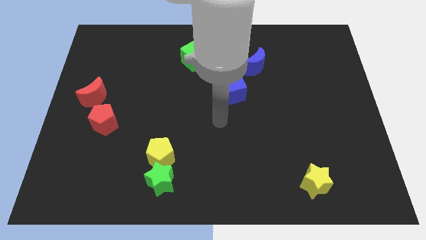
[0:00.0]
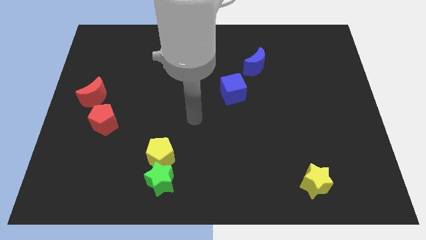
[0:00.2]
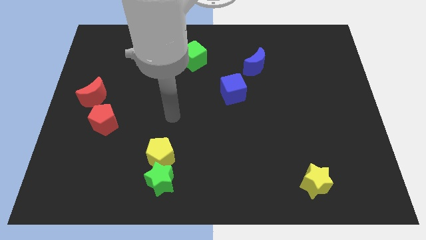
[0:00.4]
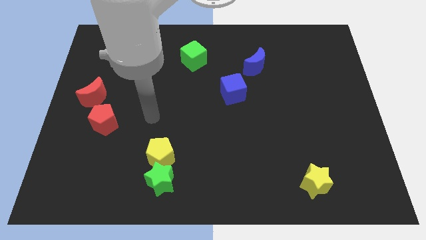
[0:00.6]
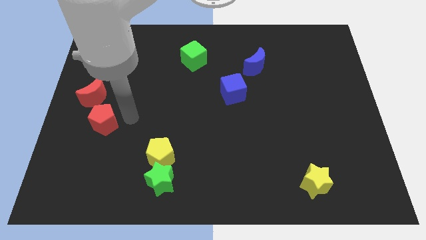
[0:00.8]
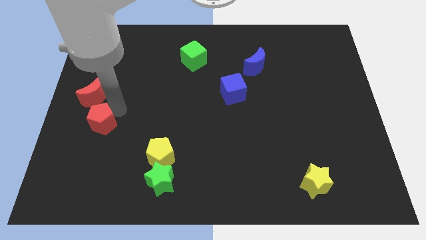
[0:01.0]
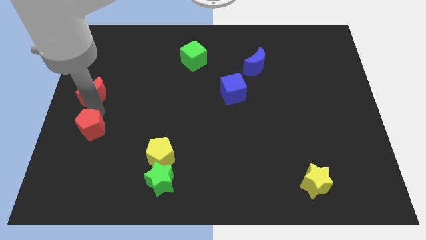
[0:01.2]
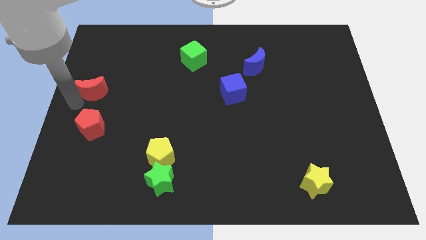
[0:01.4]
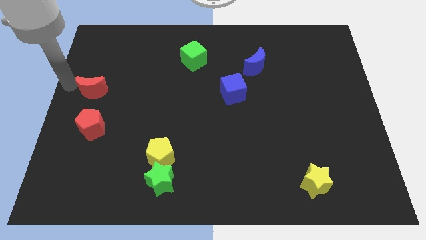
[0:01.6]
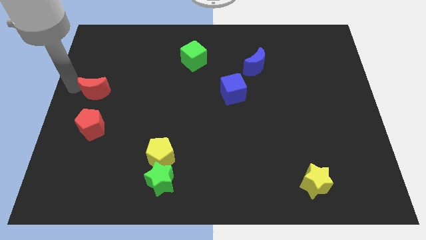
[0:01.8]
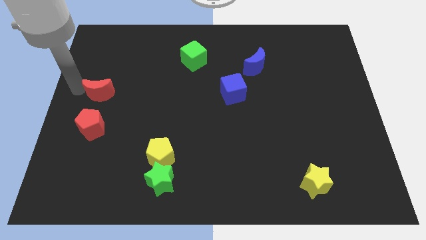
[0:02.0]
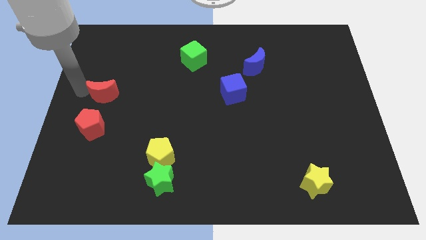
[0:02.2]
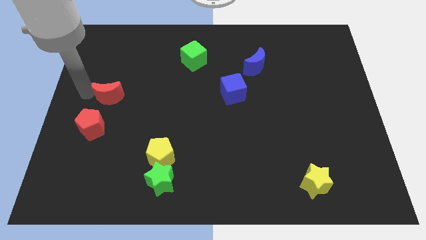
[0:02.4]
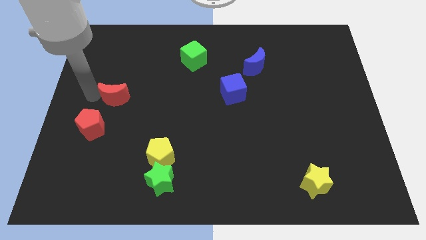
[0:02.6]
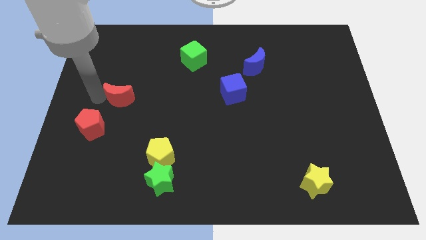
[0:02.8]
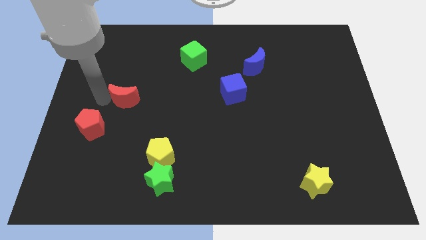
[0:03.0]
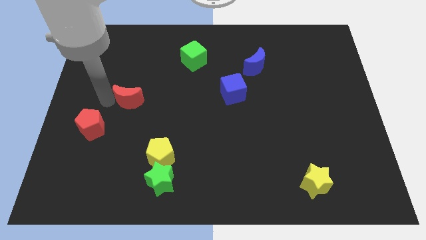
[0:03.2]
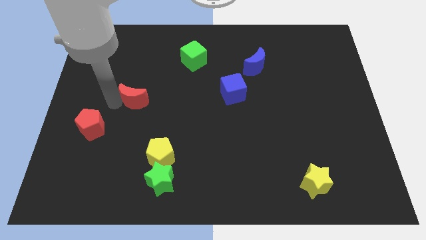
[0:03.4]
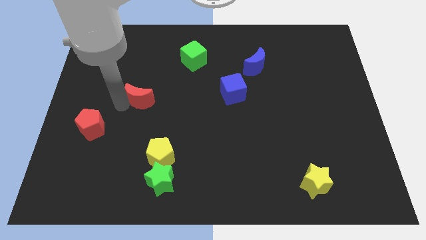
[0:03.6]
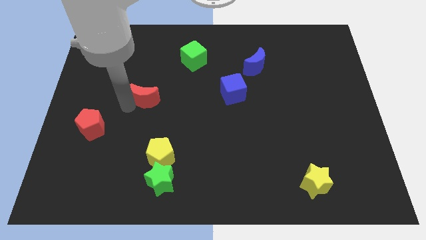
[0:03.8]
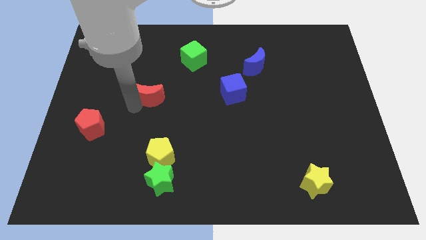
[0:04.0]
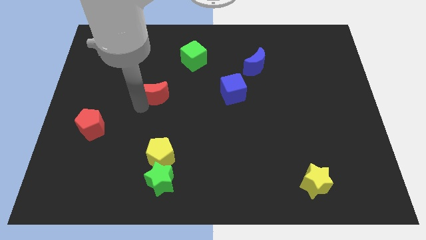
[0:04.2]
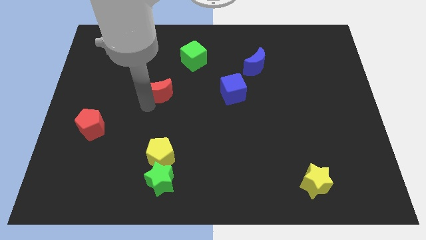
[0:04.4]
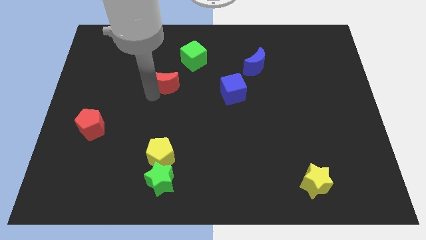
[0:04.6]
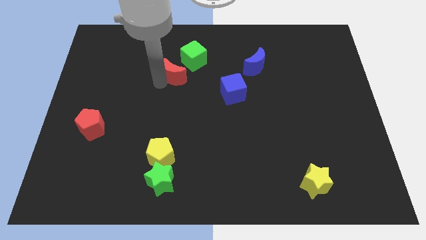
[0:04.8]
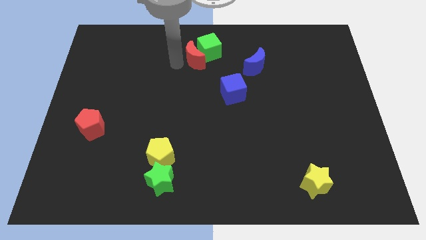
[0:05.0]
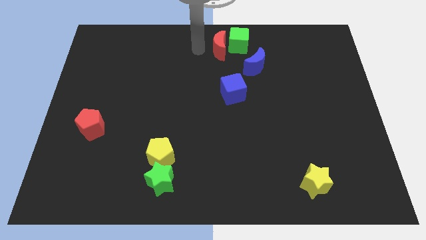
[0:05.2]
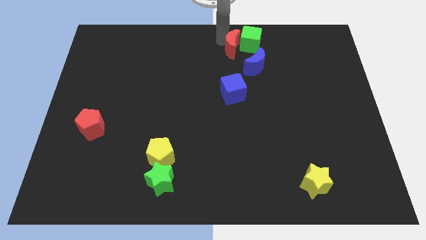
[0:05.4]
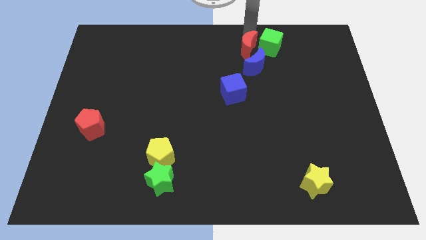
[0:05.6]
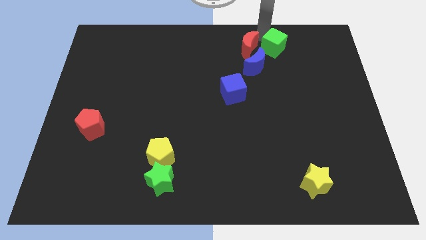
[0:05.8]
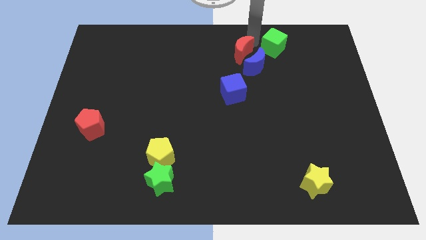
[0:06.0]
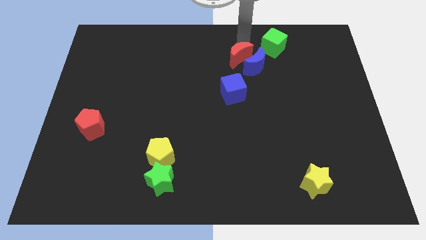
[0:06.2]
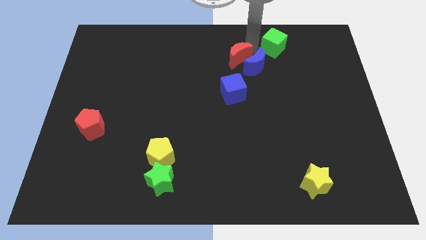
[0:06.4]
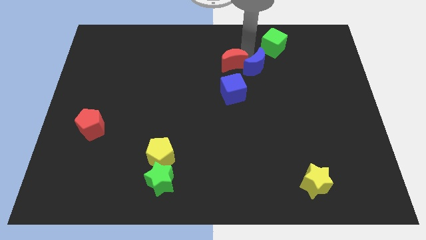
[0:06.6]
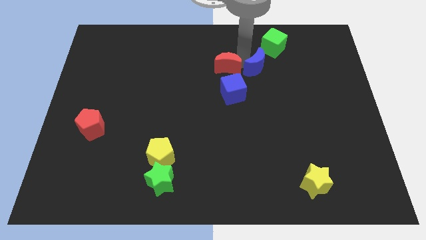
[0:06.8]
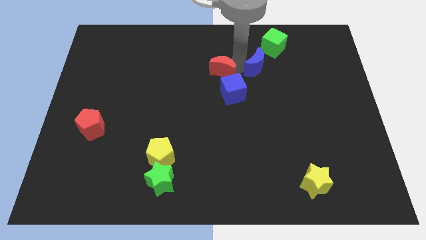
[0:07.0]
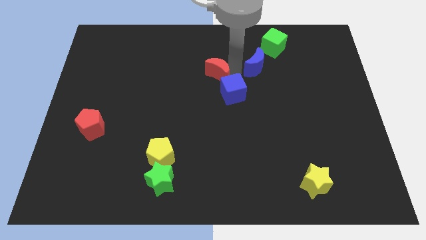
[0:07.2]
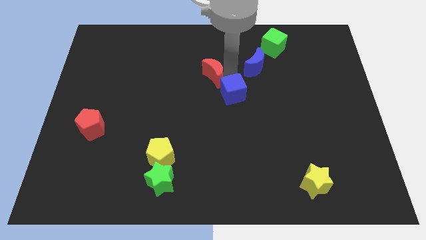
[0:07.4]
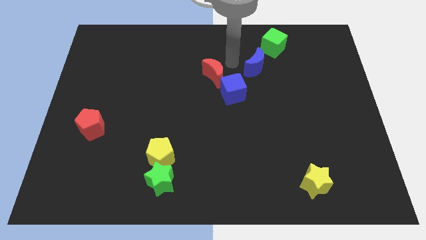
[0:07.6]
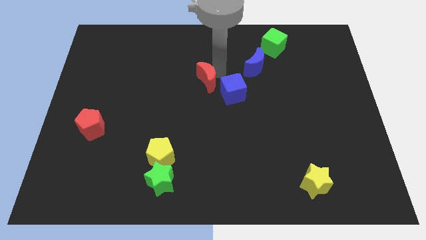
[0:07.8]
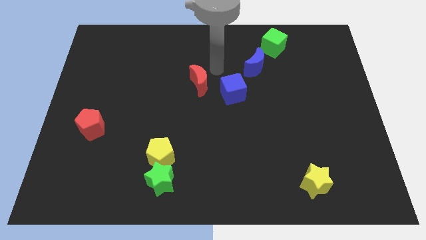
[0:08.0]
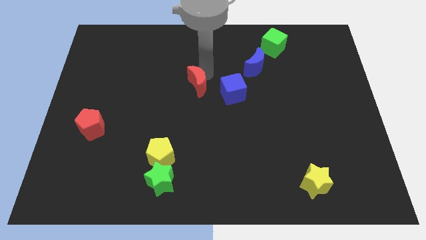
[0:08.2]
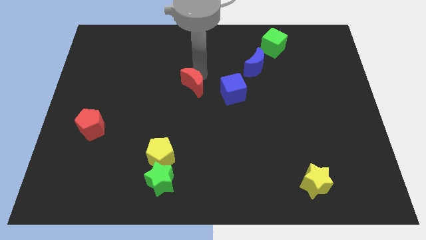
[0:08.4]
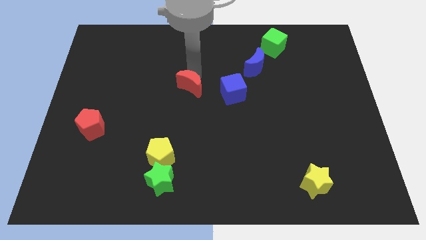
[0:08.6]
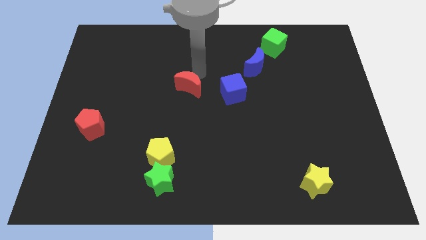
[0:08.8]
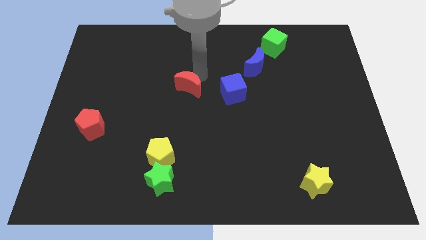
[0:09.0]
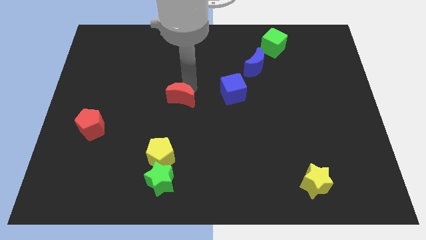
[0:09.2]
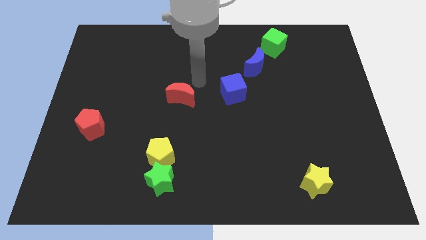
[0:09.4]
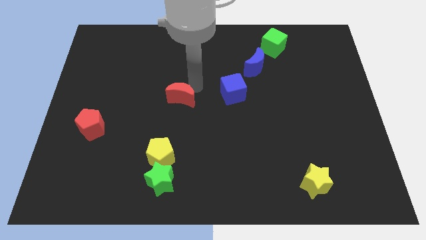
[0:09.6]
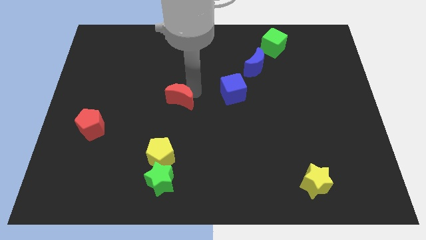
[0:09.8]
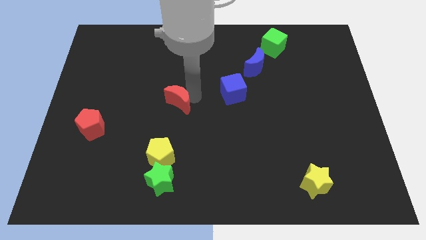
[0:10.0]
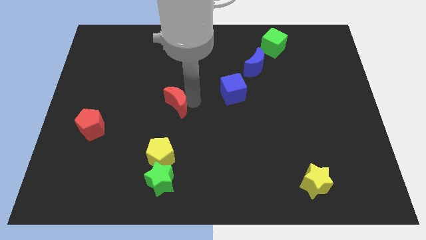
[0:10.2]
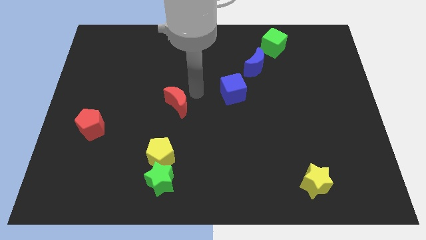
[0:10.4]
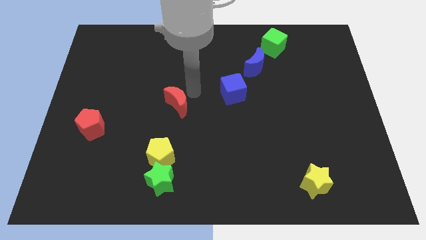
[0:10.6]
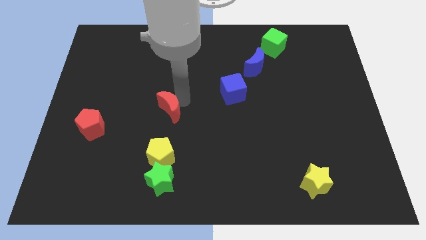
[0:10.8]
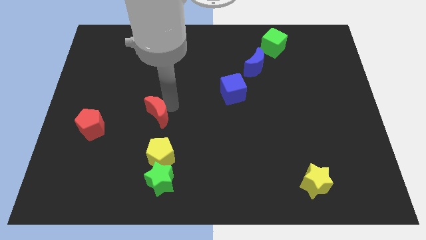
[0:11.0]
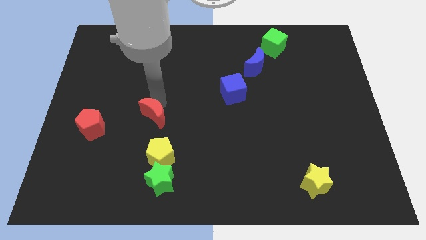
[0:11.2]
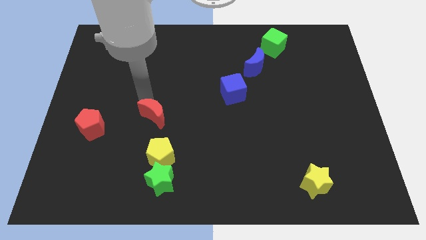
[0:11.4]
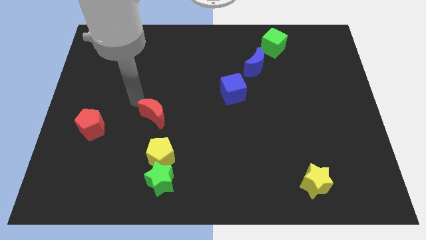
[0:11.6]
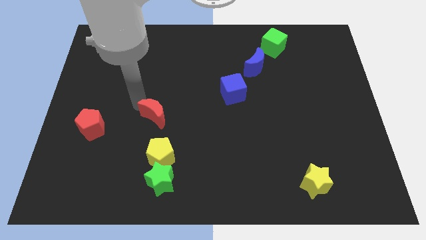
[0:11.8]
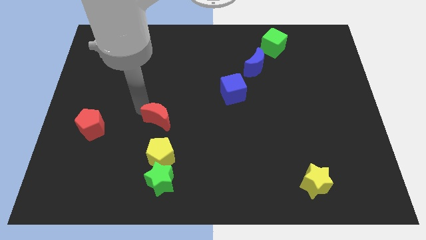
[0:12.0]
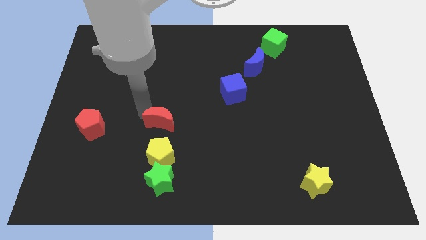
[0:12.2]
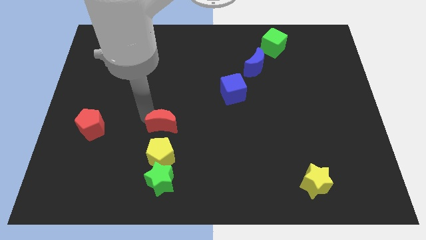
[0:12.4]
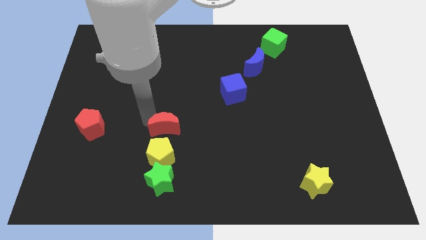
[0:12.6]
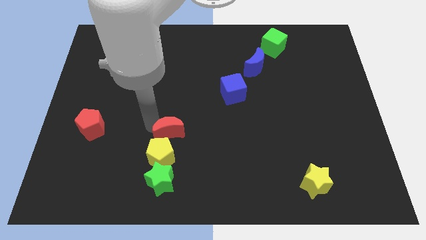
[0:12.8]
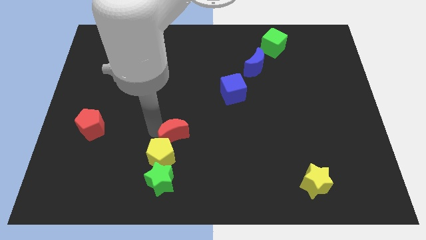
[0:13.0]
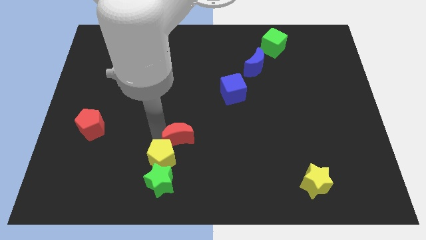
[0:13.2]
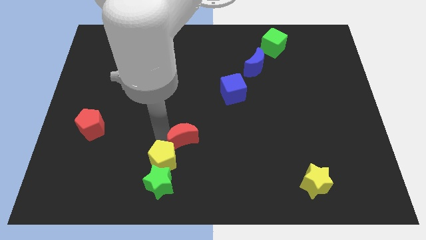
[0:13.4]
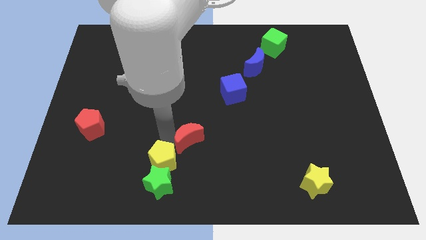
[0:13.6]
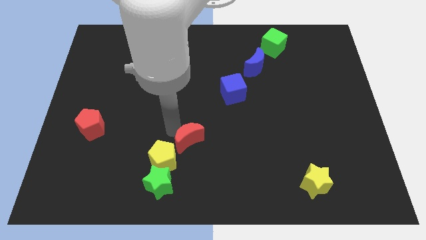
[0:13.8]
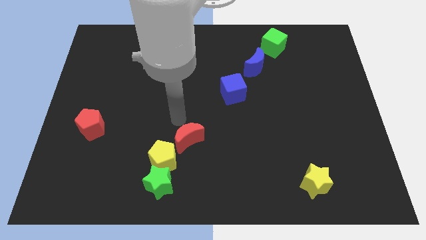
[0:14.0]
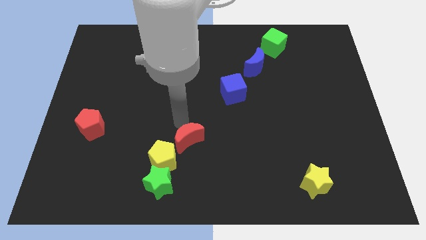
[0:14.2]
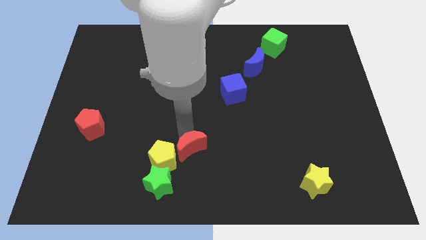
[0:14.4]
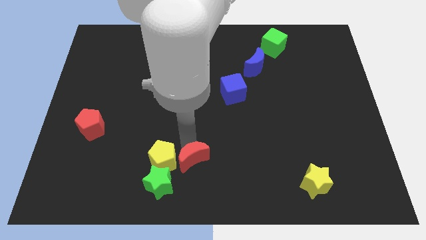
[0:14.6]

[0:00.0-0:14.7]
slide the red moon to the bottom

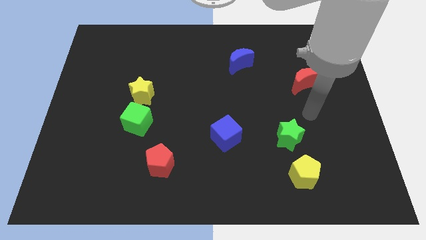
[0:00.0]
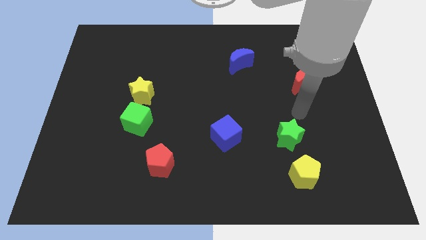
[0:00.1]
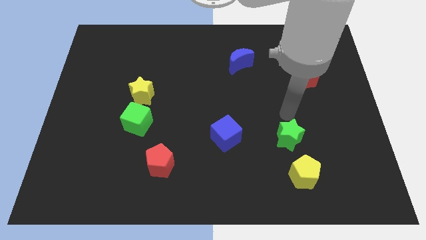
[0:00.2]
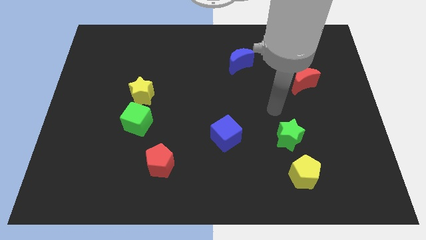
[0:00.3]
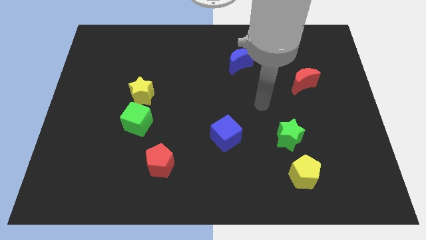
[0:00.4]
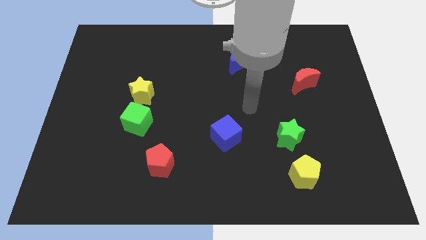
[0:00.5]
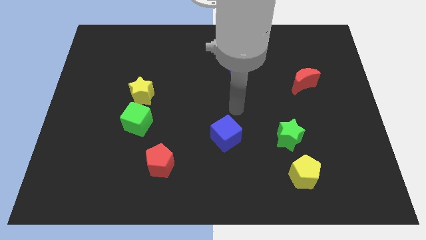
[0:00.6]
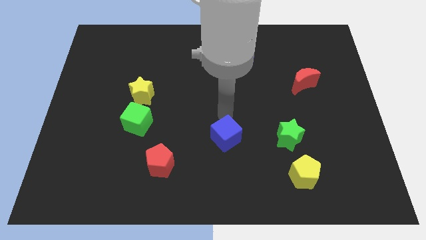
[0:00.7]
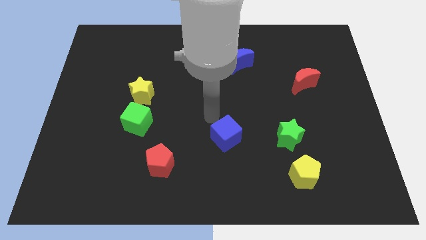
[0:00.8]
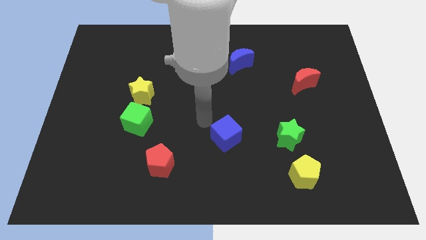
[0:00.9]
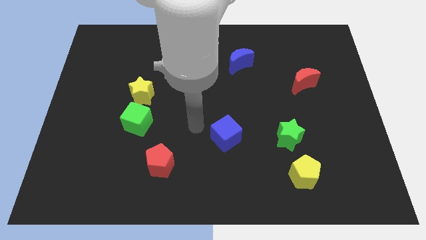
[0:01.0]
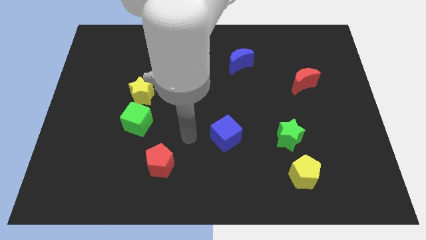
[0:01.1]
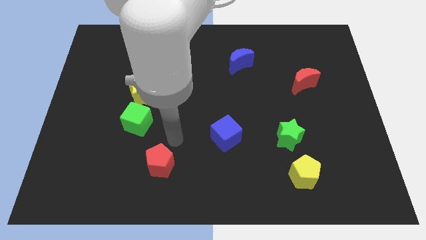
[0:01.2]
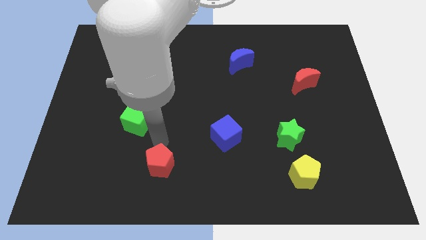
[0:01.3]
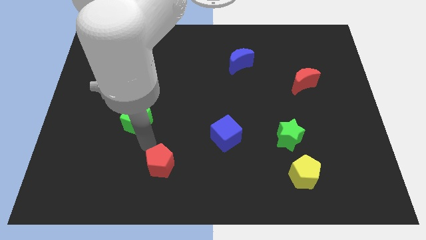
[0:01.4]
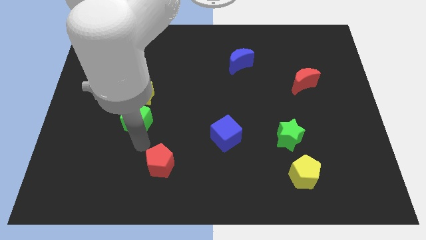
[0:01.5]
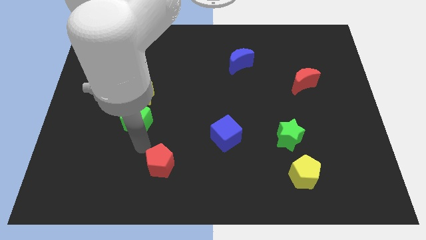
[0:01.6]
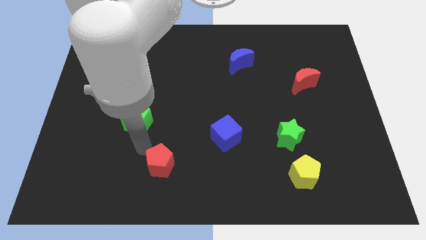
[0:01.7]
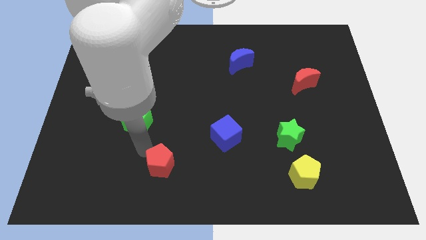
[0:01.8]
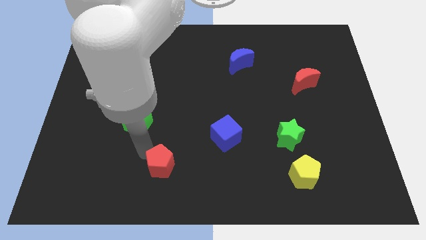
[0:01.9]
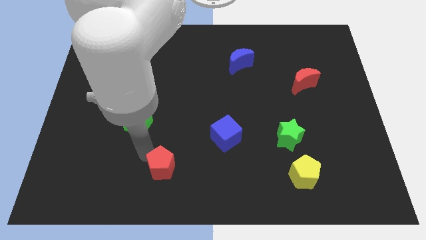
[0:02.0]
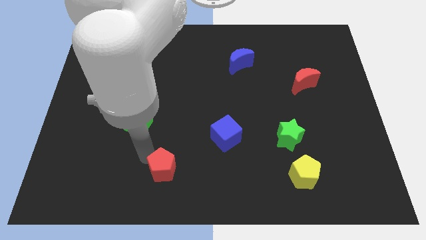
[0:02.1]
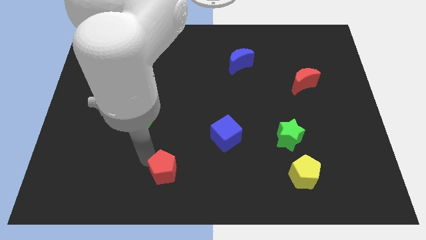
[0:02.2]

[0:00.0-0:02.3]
move the red pentagon to the bottom
